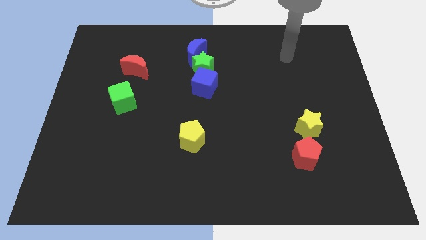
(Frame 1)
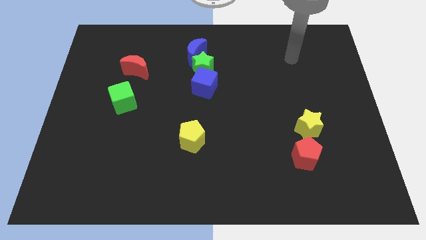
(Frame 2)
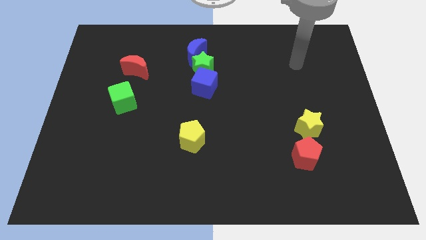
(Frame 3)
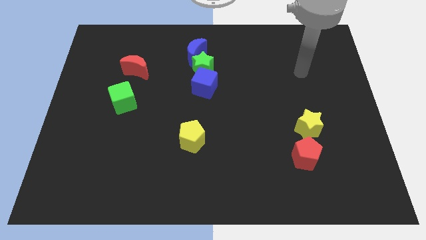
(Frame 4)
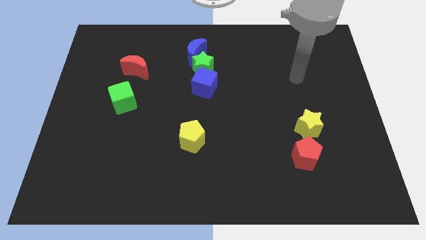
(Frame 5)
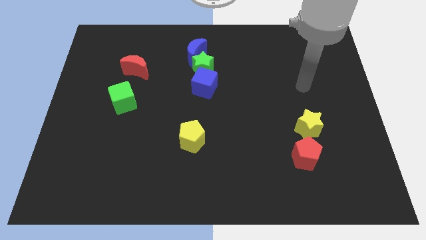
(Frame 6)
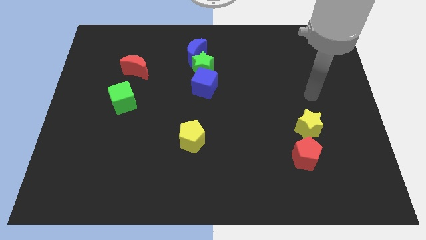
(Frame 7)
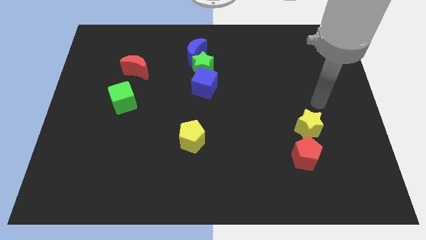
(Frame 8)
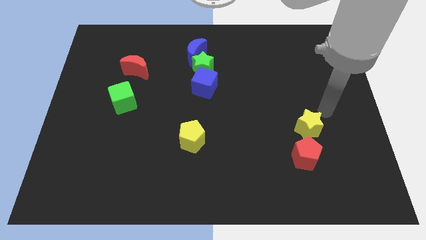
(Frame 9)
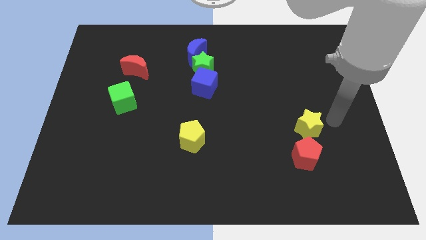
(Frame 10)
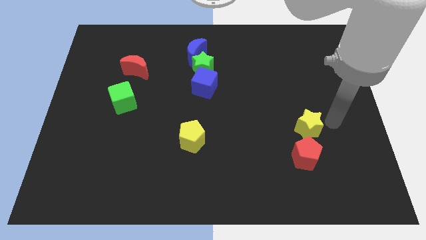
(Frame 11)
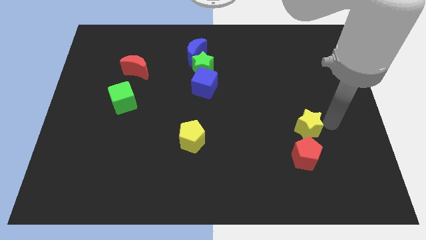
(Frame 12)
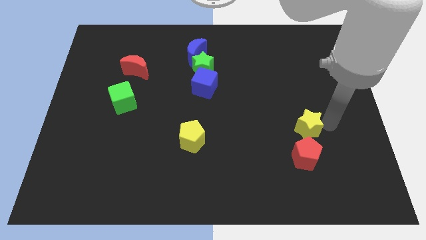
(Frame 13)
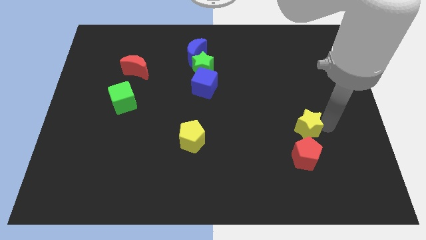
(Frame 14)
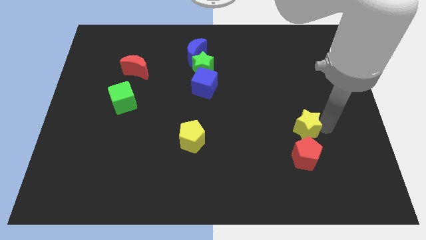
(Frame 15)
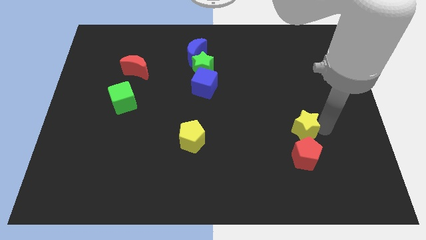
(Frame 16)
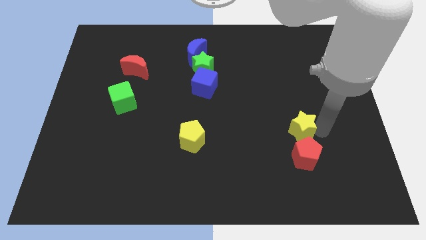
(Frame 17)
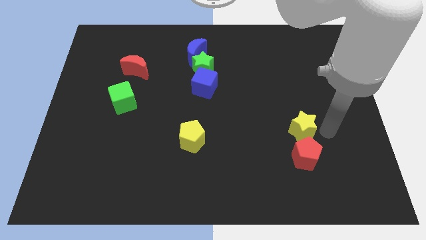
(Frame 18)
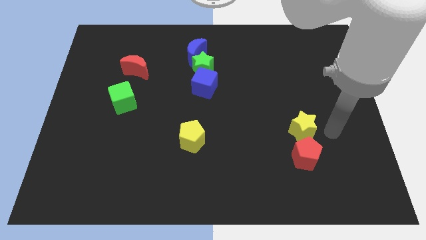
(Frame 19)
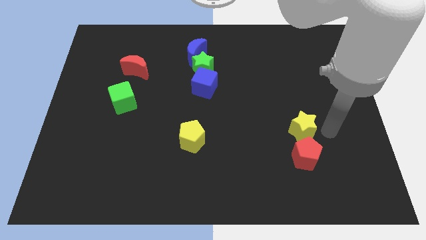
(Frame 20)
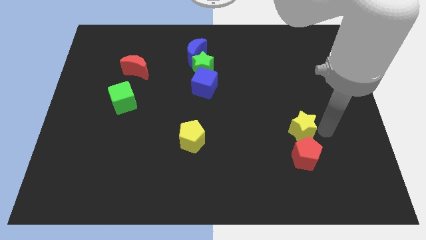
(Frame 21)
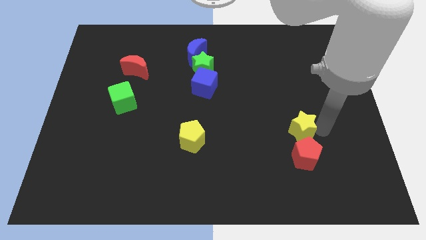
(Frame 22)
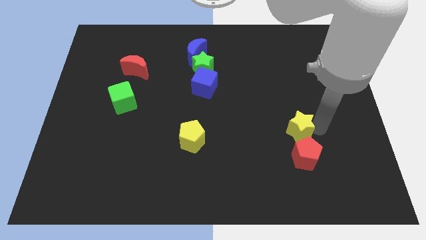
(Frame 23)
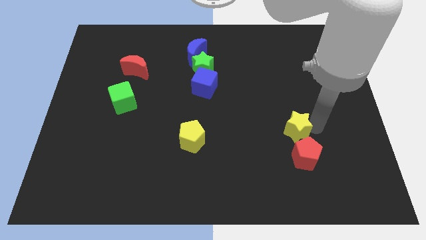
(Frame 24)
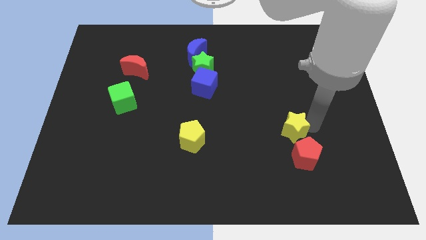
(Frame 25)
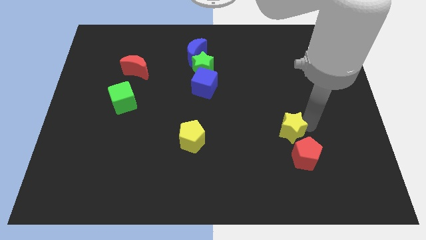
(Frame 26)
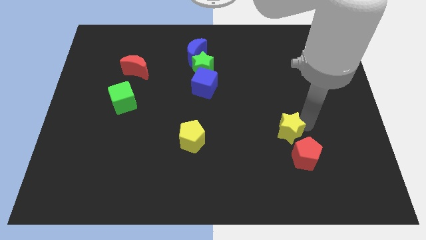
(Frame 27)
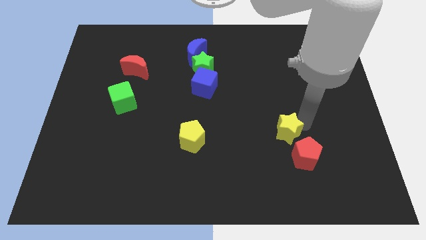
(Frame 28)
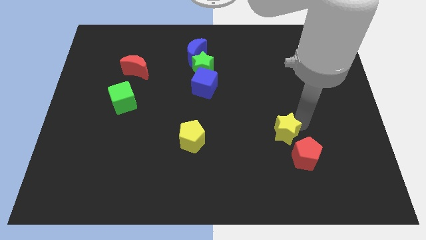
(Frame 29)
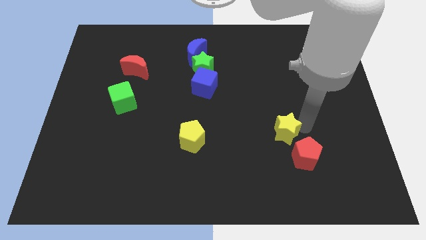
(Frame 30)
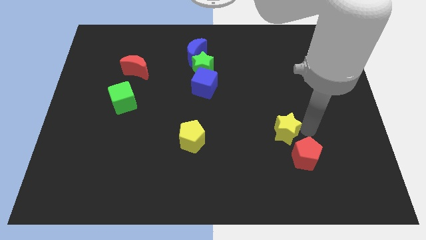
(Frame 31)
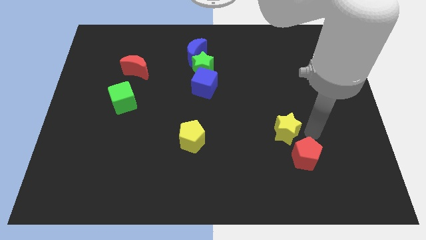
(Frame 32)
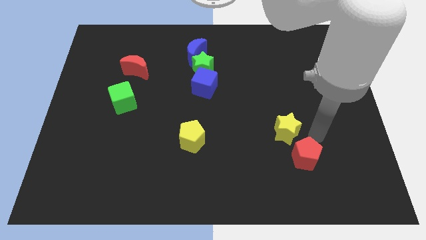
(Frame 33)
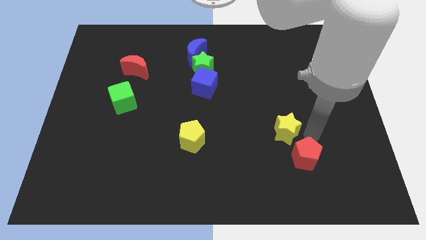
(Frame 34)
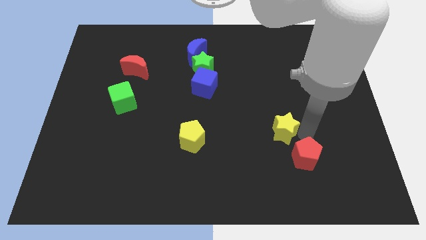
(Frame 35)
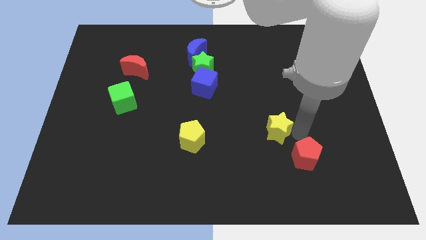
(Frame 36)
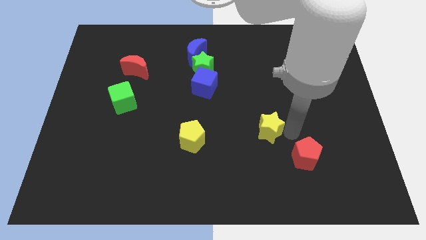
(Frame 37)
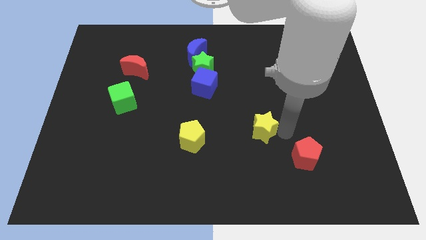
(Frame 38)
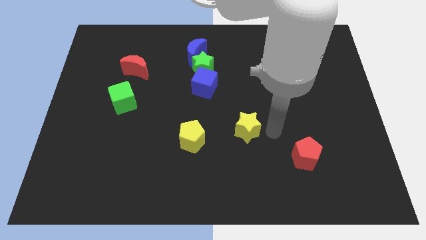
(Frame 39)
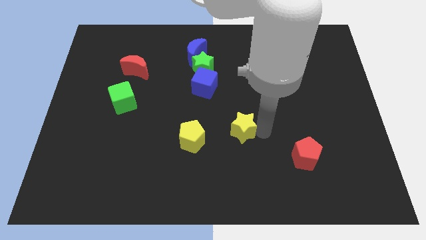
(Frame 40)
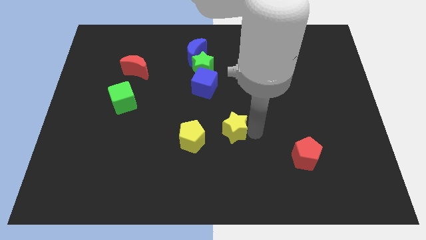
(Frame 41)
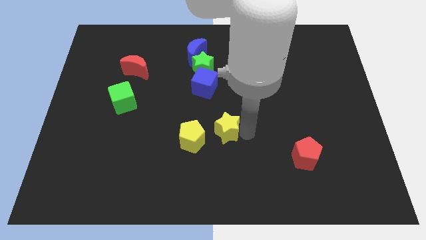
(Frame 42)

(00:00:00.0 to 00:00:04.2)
move the yellow star to the top right side of the yellow pentagon

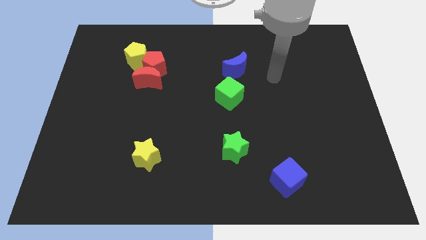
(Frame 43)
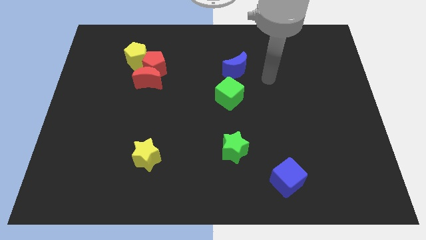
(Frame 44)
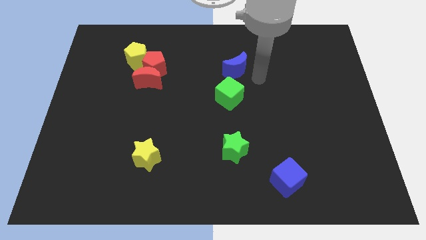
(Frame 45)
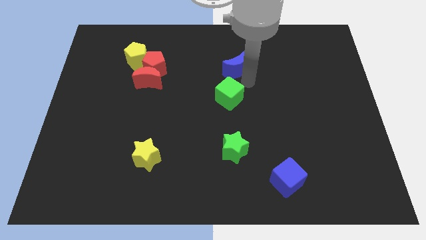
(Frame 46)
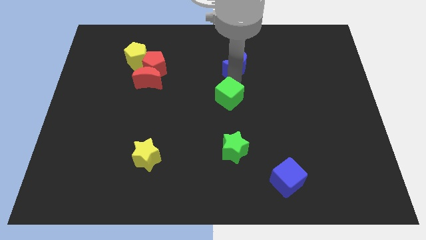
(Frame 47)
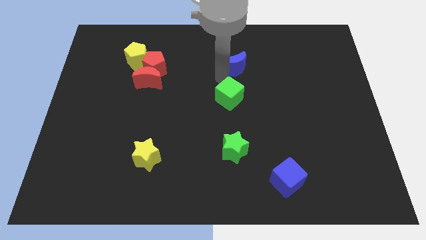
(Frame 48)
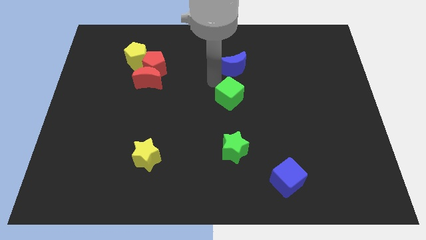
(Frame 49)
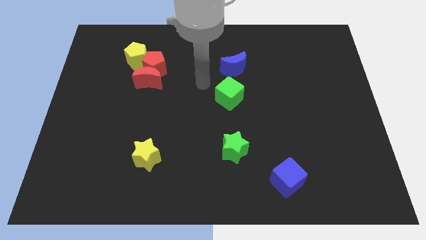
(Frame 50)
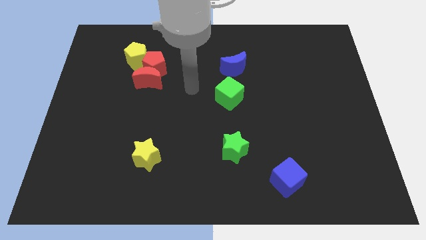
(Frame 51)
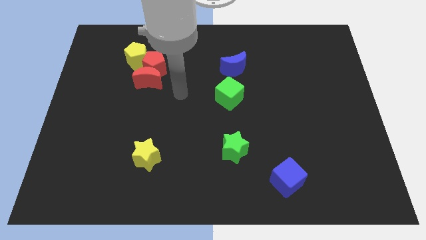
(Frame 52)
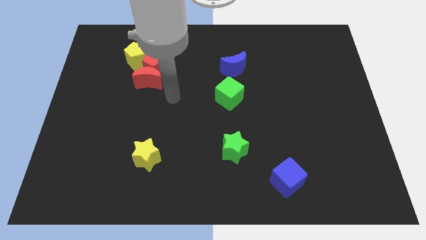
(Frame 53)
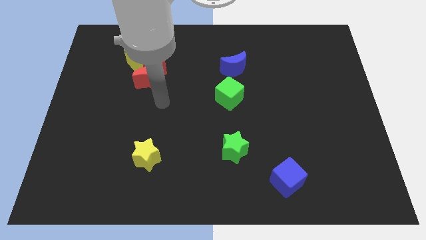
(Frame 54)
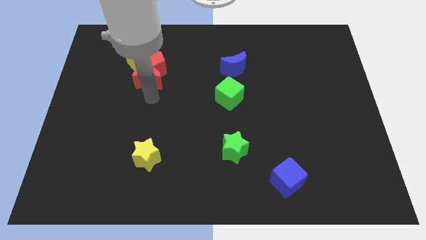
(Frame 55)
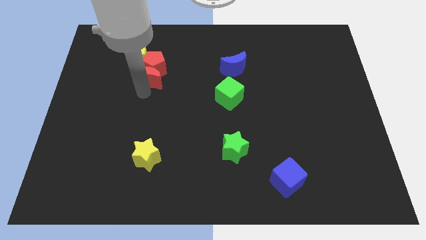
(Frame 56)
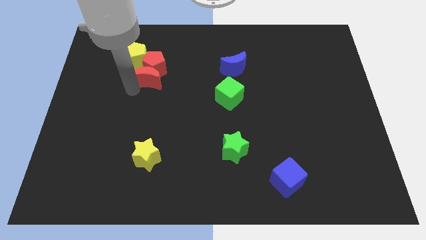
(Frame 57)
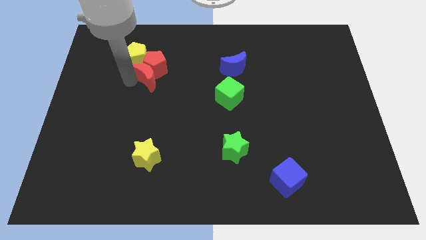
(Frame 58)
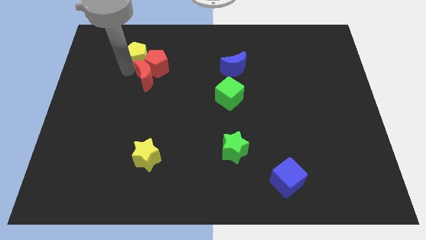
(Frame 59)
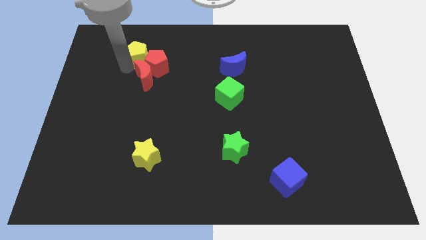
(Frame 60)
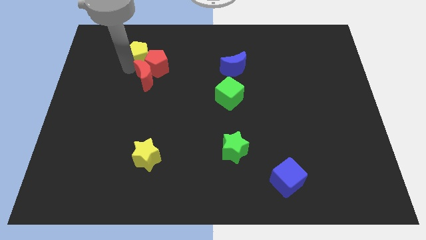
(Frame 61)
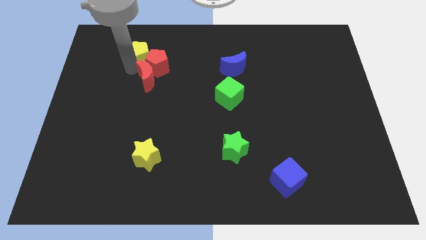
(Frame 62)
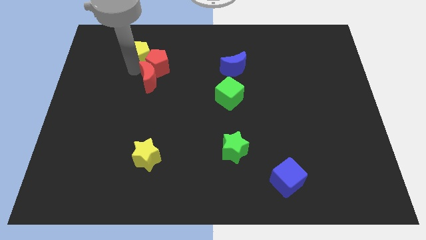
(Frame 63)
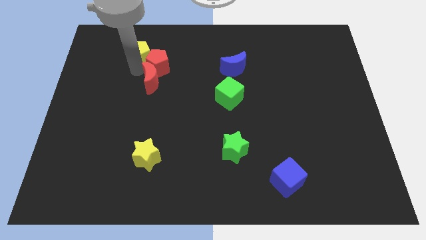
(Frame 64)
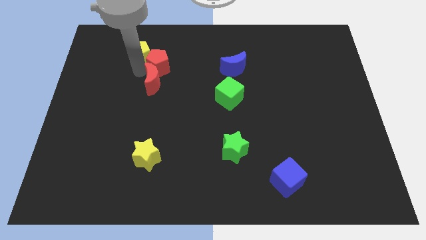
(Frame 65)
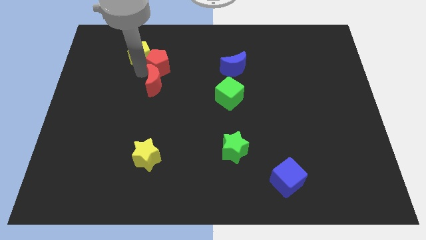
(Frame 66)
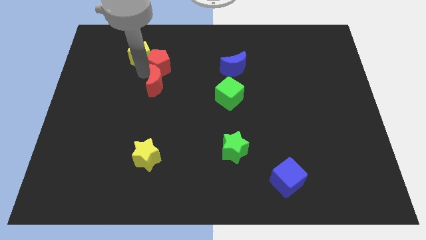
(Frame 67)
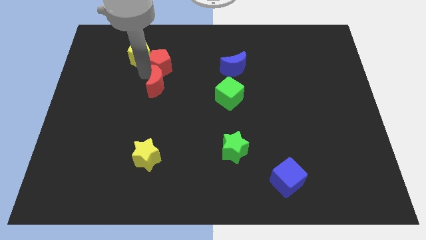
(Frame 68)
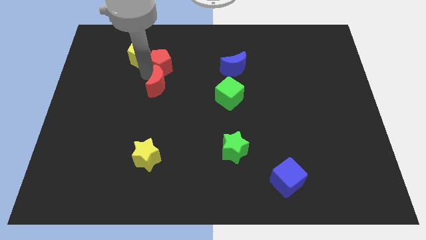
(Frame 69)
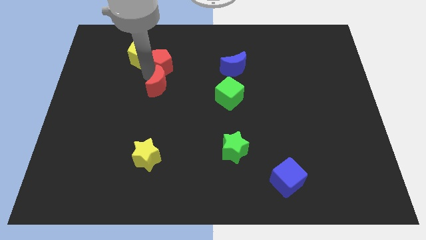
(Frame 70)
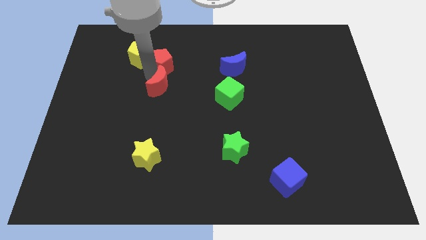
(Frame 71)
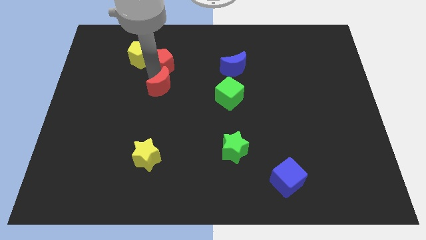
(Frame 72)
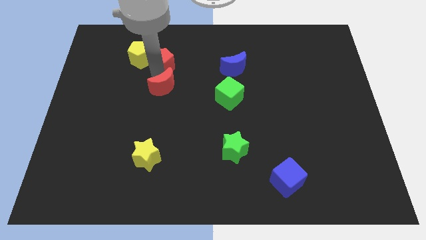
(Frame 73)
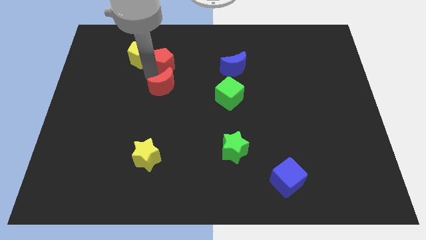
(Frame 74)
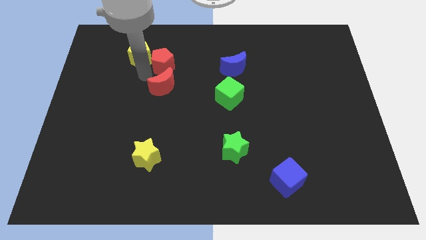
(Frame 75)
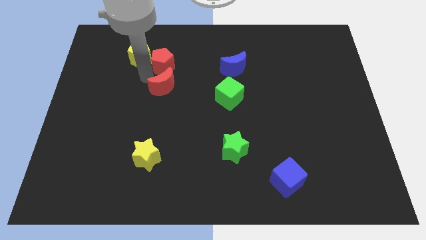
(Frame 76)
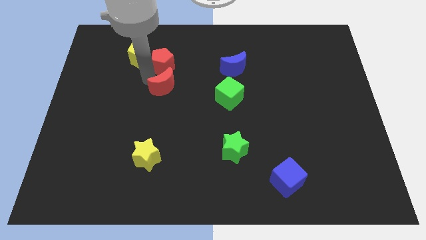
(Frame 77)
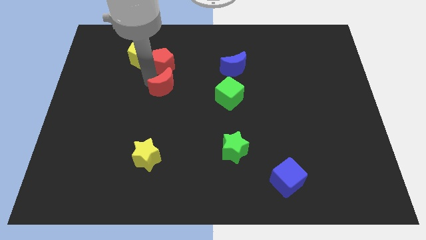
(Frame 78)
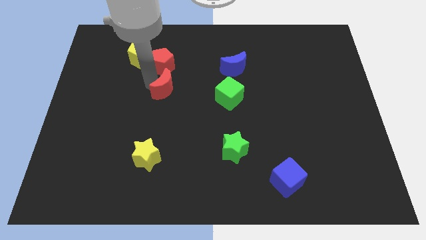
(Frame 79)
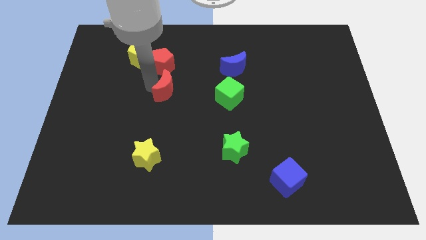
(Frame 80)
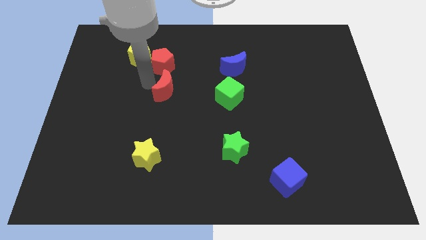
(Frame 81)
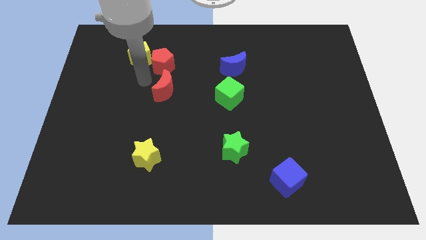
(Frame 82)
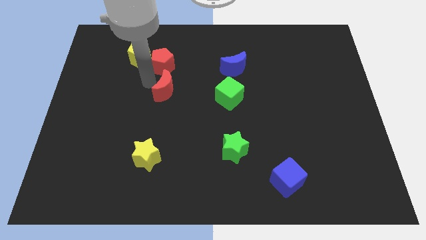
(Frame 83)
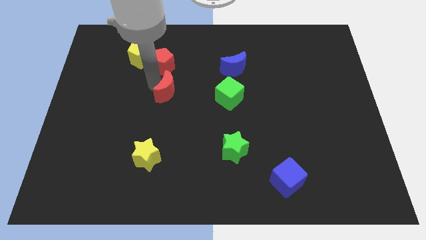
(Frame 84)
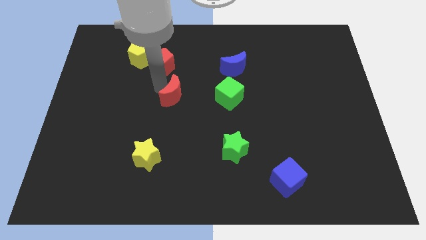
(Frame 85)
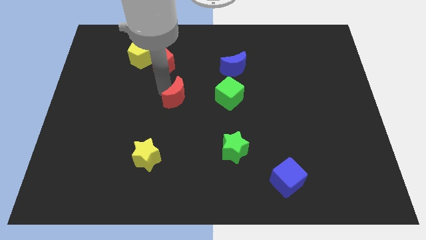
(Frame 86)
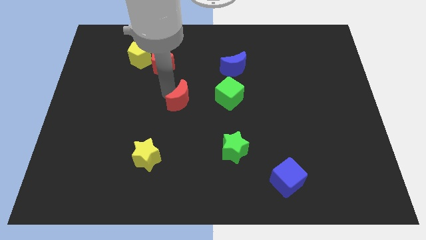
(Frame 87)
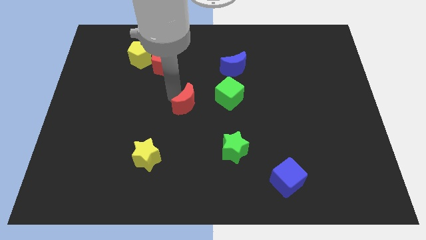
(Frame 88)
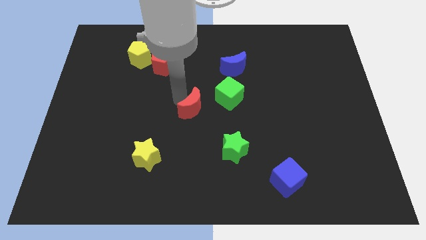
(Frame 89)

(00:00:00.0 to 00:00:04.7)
slide the red moon diagonally down and to the left of the green cube
